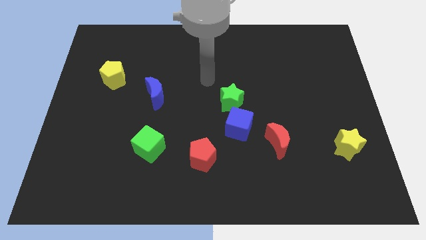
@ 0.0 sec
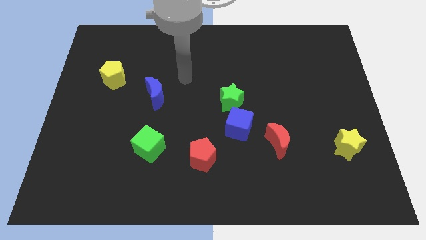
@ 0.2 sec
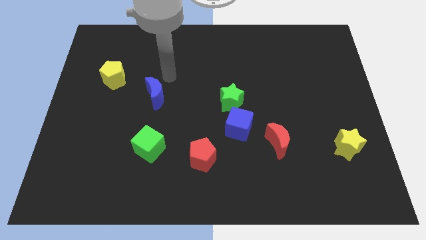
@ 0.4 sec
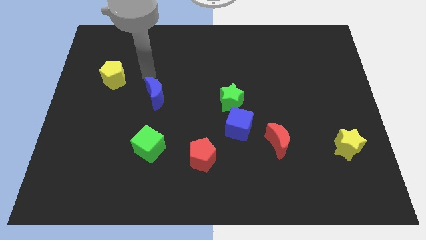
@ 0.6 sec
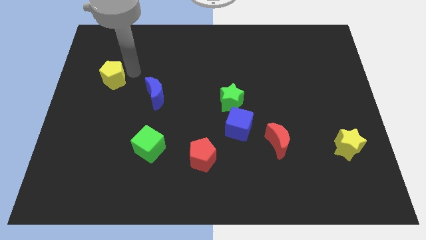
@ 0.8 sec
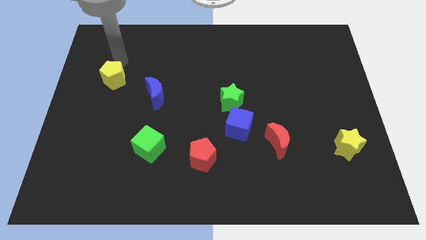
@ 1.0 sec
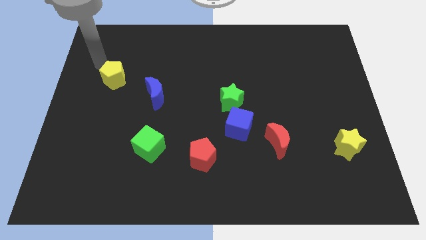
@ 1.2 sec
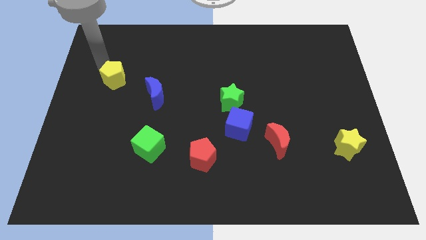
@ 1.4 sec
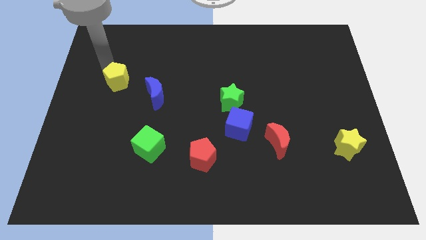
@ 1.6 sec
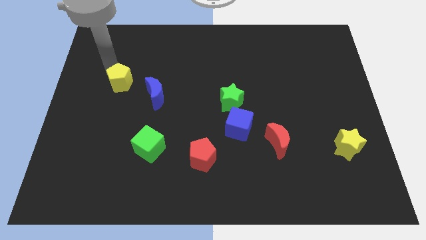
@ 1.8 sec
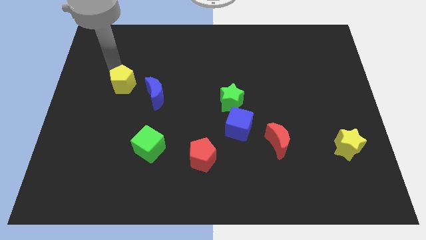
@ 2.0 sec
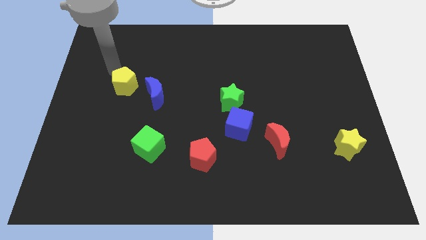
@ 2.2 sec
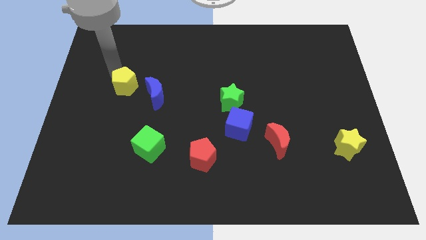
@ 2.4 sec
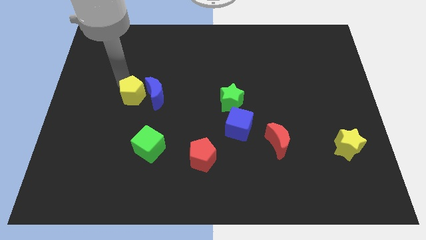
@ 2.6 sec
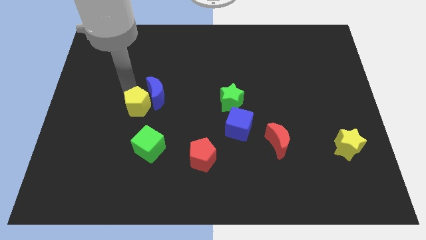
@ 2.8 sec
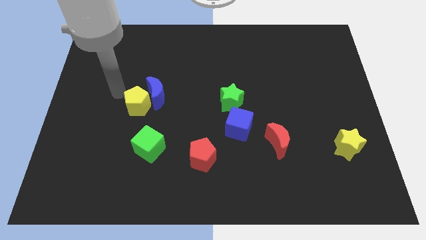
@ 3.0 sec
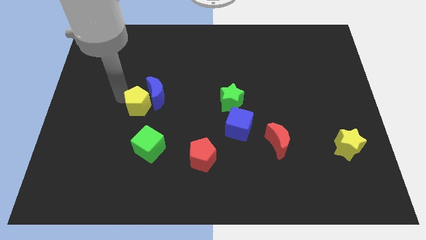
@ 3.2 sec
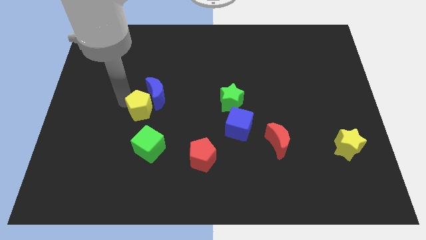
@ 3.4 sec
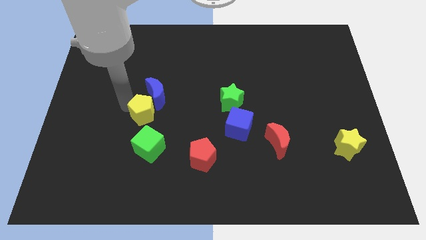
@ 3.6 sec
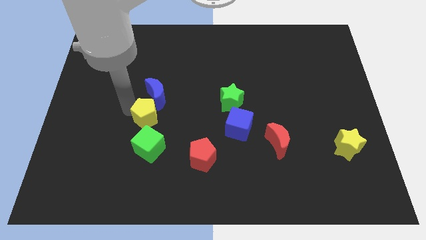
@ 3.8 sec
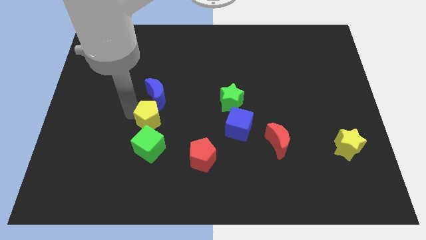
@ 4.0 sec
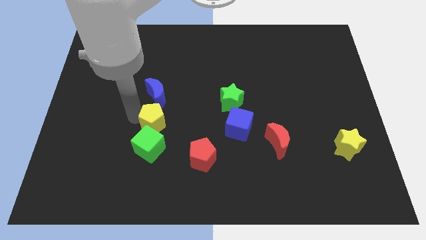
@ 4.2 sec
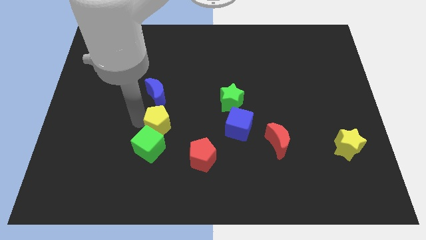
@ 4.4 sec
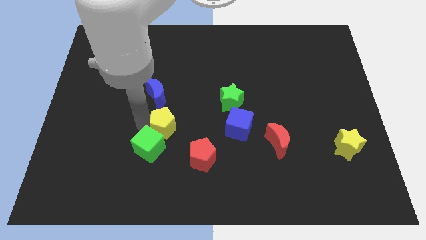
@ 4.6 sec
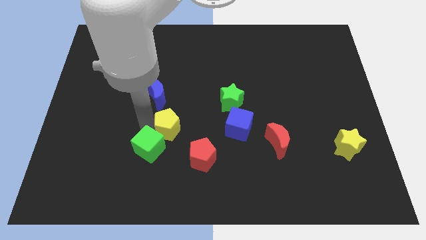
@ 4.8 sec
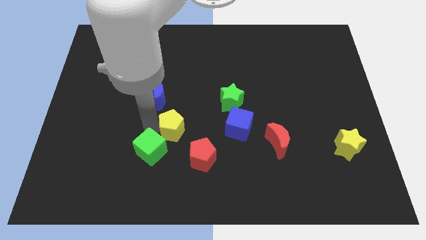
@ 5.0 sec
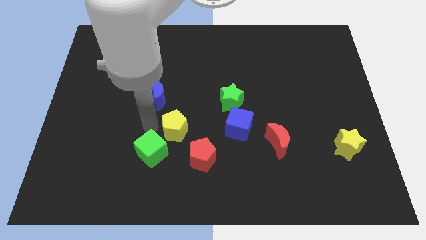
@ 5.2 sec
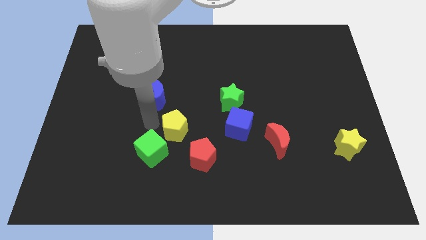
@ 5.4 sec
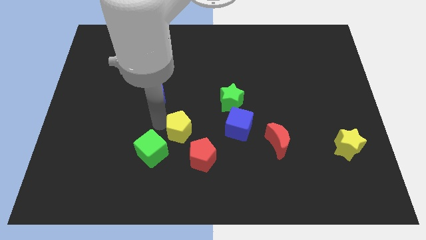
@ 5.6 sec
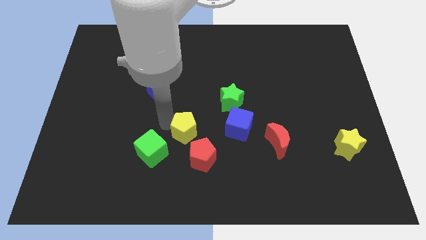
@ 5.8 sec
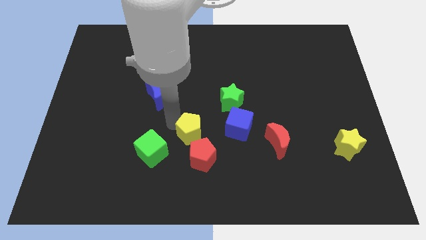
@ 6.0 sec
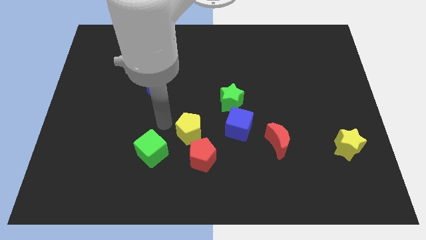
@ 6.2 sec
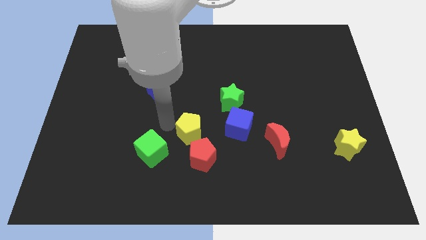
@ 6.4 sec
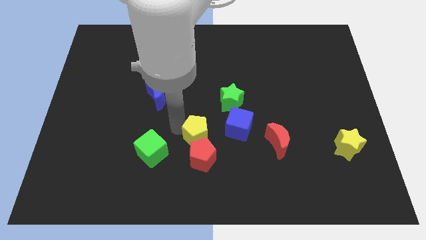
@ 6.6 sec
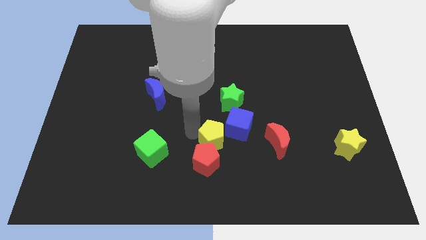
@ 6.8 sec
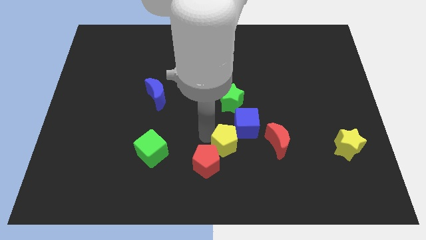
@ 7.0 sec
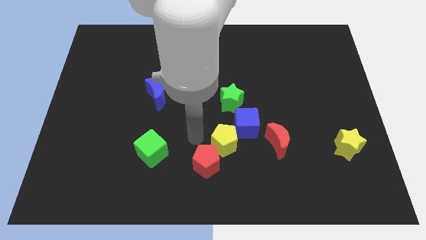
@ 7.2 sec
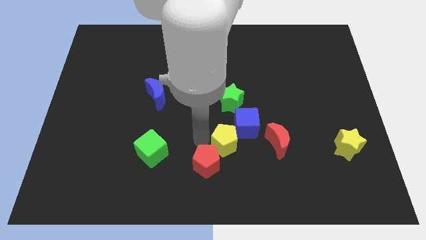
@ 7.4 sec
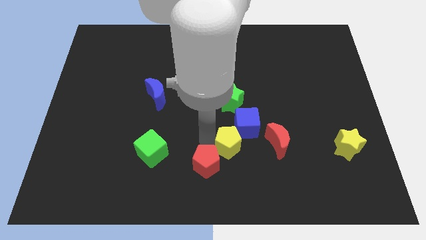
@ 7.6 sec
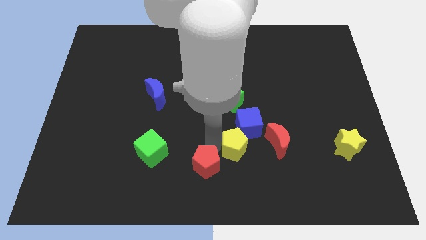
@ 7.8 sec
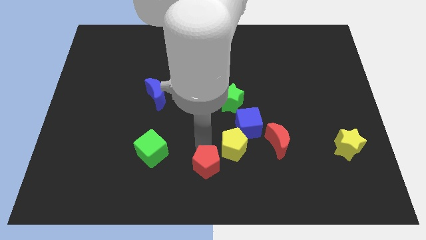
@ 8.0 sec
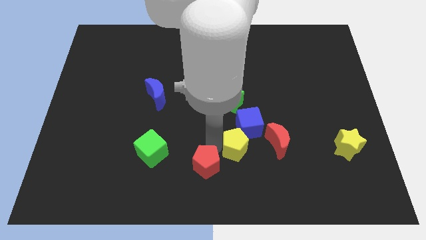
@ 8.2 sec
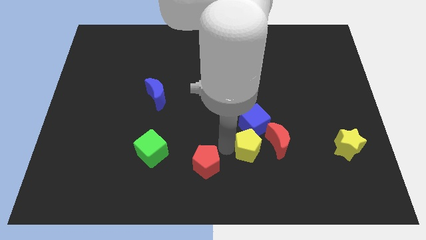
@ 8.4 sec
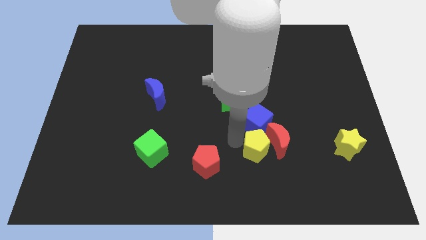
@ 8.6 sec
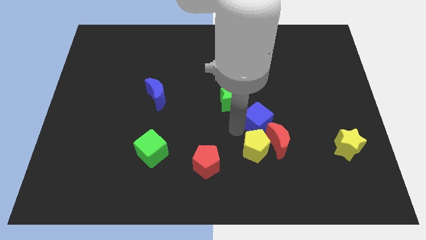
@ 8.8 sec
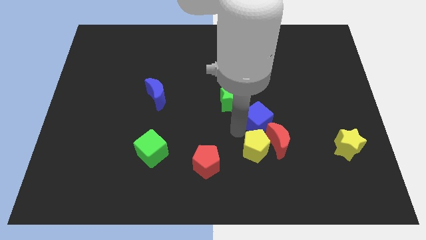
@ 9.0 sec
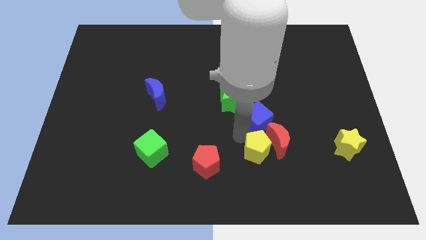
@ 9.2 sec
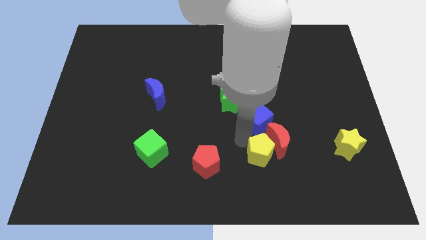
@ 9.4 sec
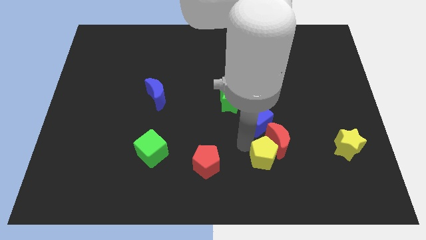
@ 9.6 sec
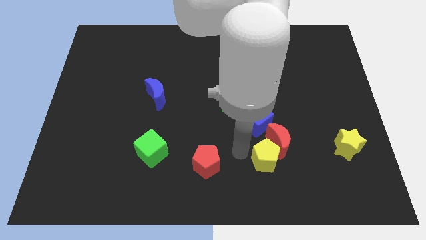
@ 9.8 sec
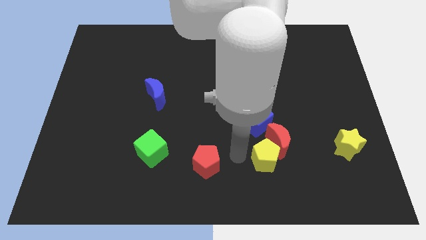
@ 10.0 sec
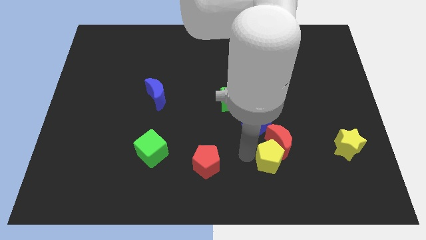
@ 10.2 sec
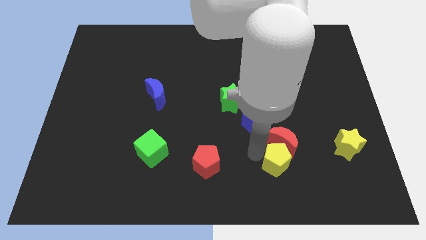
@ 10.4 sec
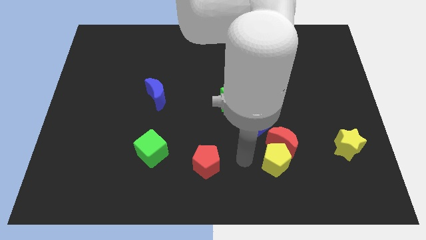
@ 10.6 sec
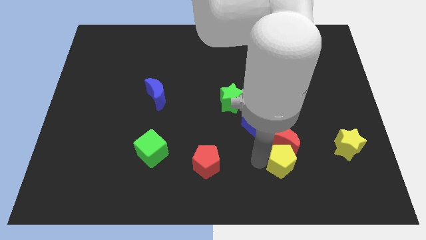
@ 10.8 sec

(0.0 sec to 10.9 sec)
push the yellow pentagon to the bottom right of the red moon

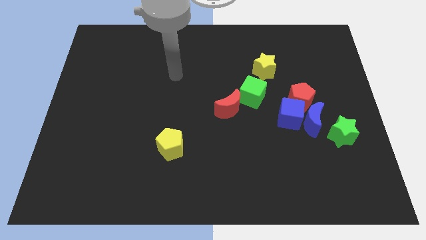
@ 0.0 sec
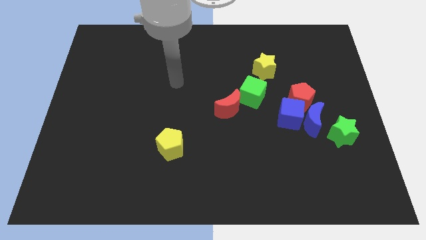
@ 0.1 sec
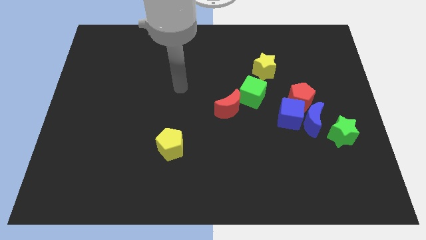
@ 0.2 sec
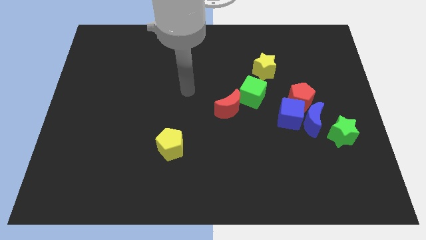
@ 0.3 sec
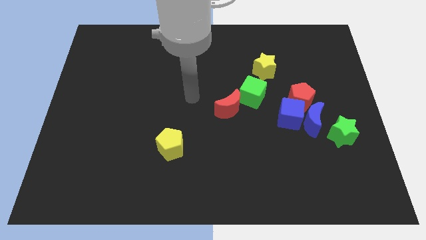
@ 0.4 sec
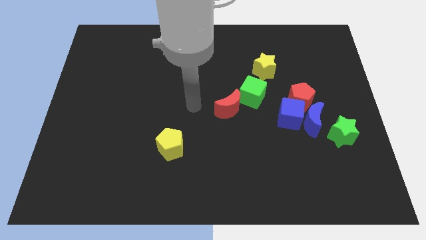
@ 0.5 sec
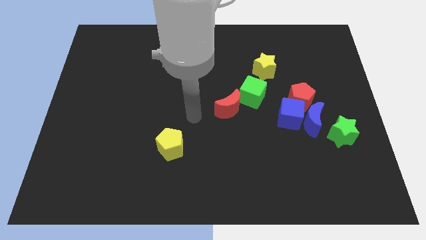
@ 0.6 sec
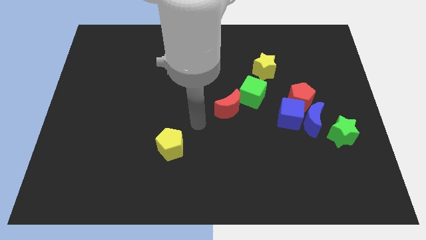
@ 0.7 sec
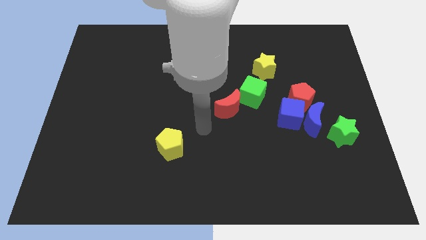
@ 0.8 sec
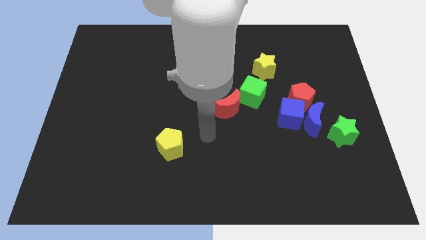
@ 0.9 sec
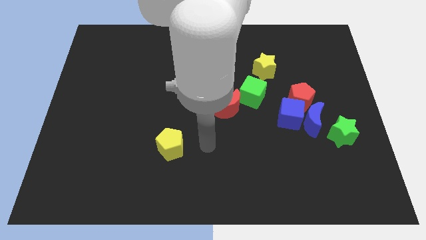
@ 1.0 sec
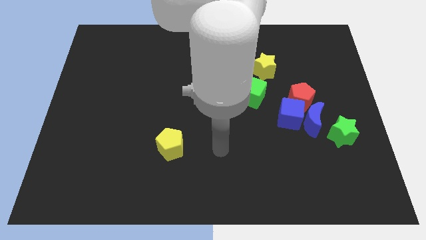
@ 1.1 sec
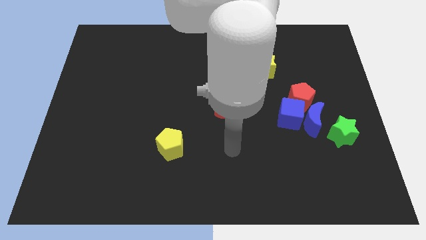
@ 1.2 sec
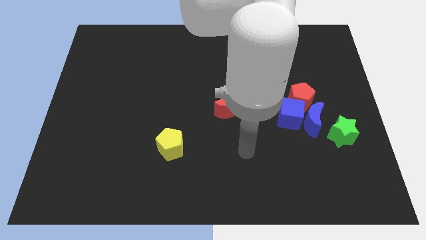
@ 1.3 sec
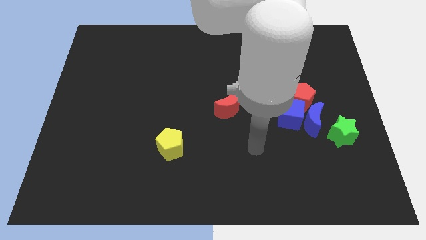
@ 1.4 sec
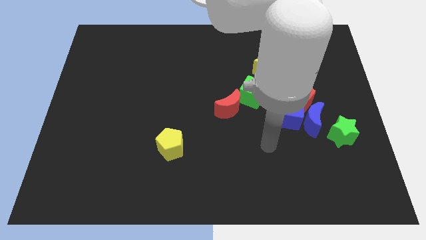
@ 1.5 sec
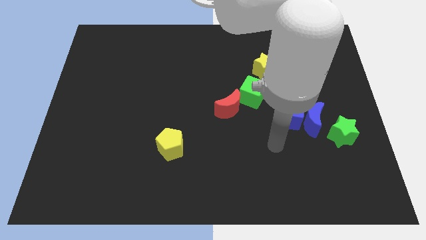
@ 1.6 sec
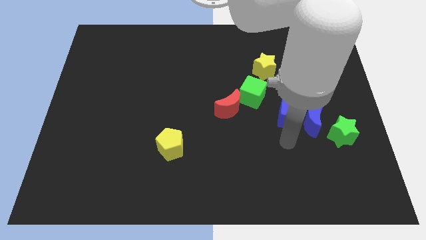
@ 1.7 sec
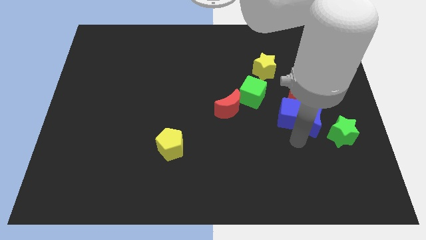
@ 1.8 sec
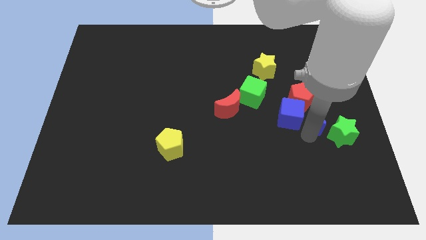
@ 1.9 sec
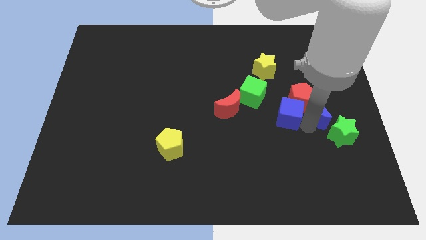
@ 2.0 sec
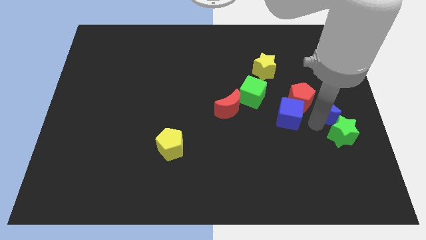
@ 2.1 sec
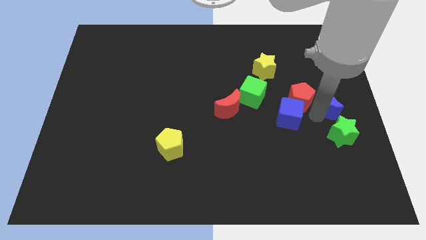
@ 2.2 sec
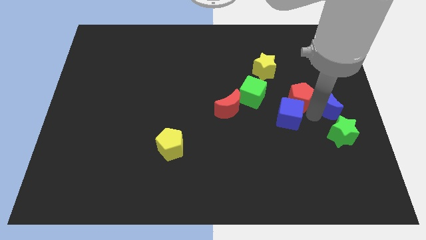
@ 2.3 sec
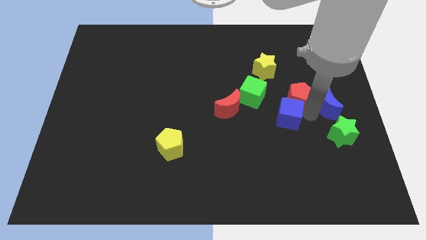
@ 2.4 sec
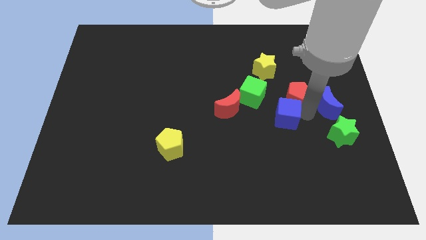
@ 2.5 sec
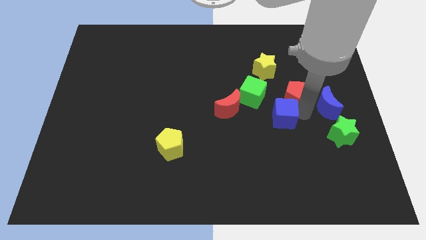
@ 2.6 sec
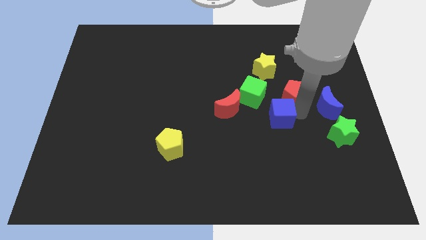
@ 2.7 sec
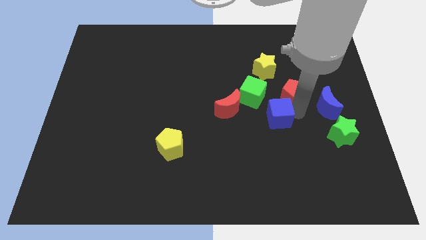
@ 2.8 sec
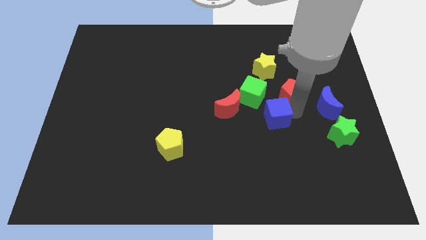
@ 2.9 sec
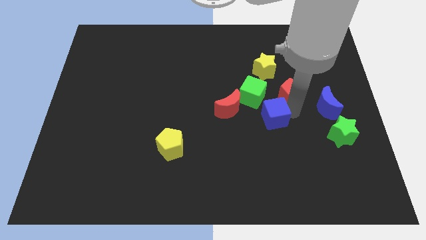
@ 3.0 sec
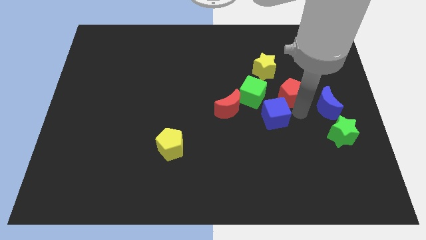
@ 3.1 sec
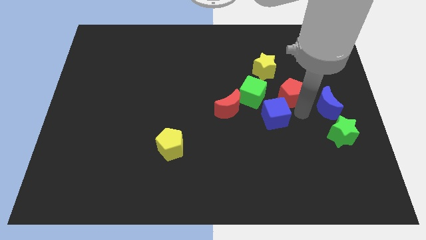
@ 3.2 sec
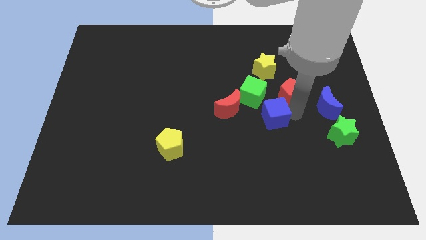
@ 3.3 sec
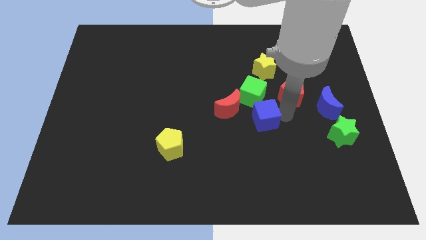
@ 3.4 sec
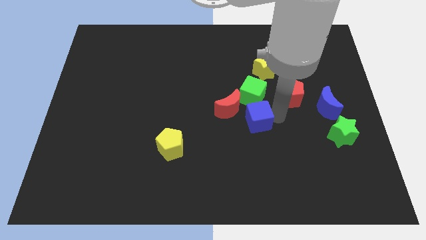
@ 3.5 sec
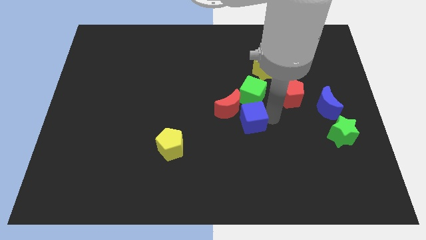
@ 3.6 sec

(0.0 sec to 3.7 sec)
slide the blue cube diagonally down and to the left of the green cube
